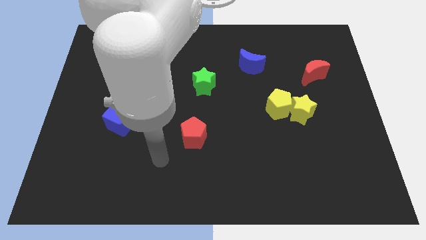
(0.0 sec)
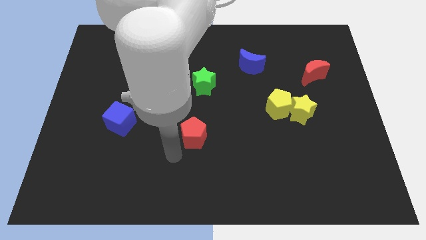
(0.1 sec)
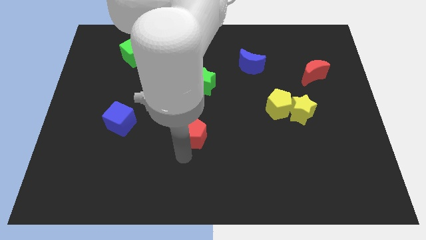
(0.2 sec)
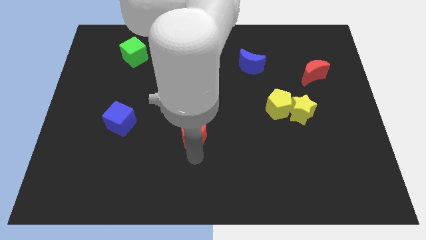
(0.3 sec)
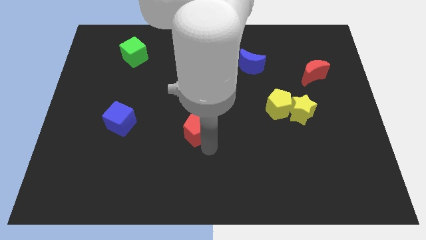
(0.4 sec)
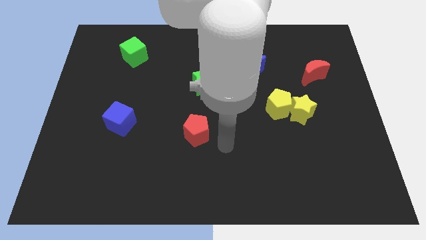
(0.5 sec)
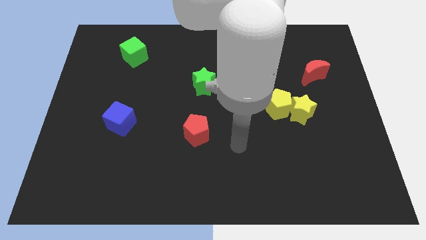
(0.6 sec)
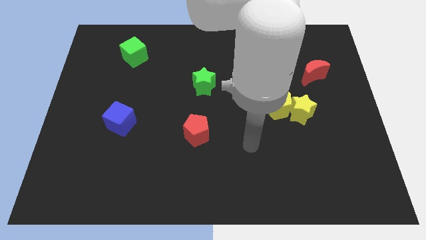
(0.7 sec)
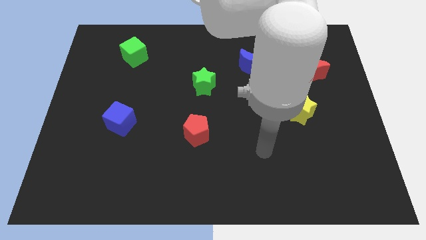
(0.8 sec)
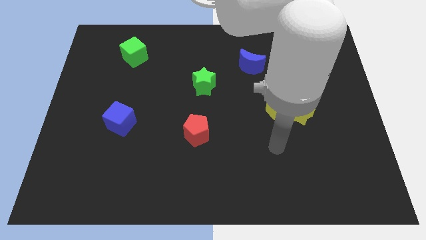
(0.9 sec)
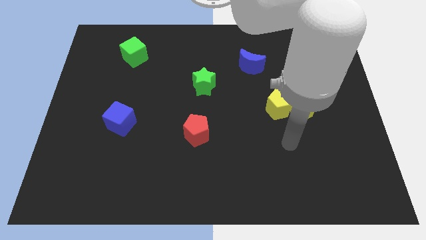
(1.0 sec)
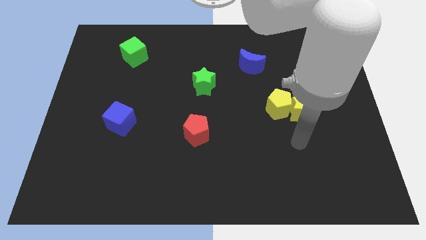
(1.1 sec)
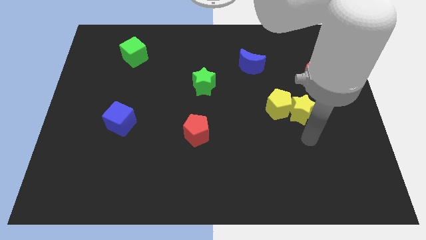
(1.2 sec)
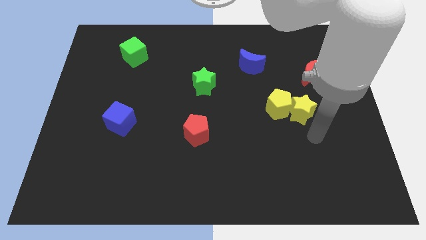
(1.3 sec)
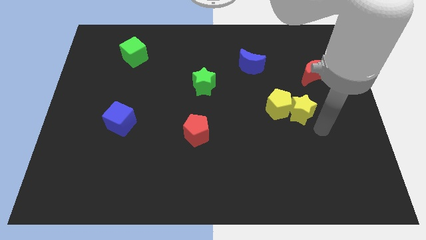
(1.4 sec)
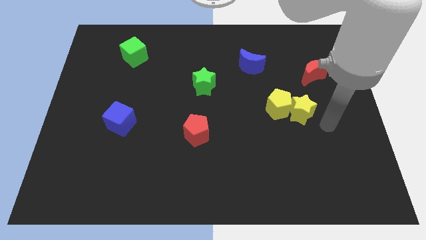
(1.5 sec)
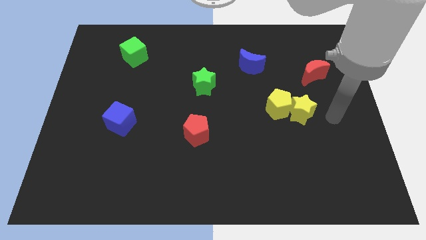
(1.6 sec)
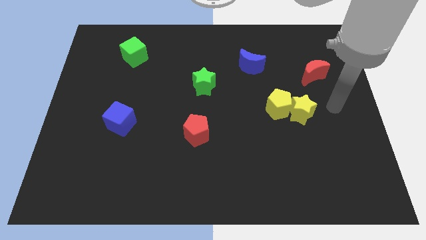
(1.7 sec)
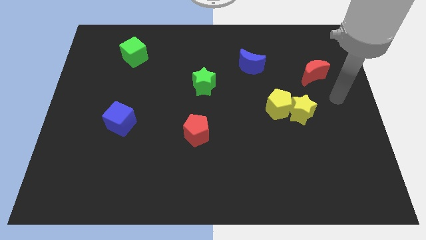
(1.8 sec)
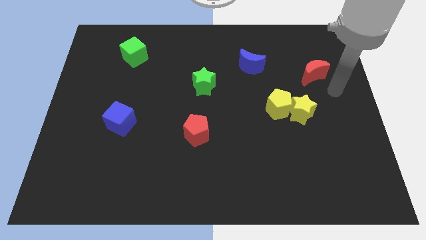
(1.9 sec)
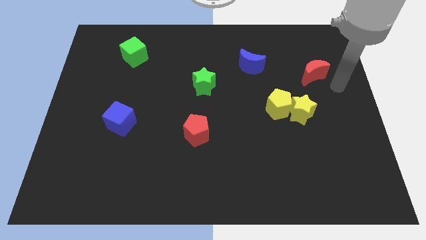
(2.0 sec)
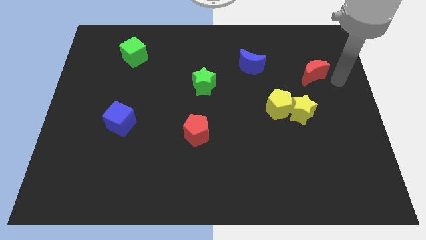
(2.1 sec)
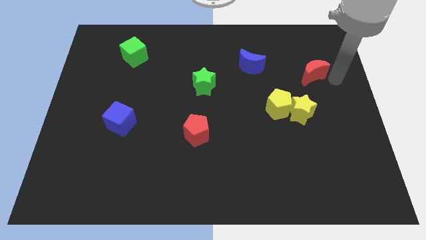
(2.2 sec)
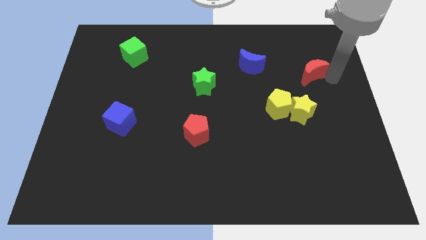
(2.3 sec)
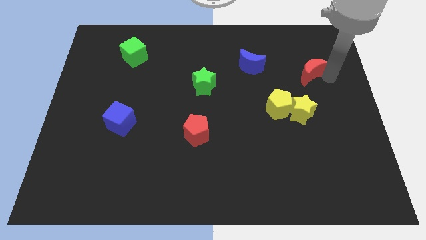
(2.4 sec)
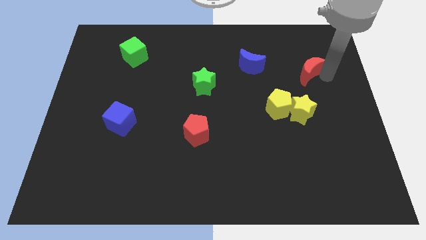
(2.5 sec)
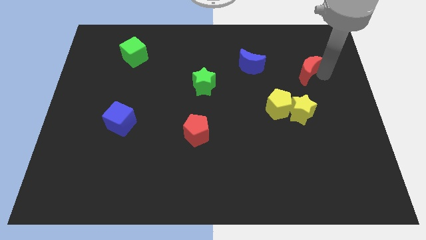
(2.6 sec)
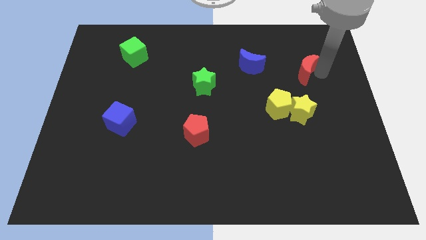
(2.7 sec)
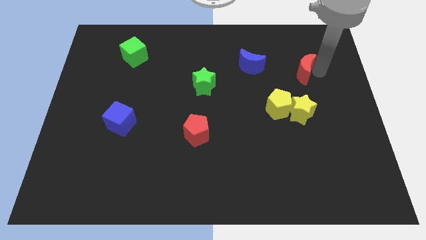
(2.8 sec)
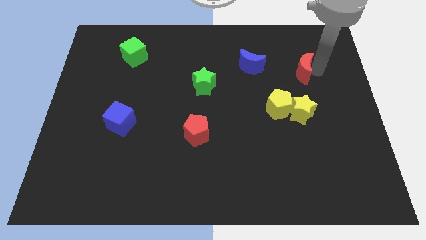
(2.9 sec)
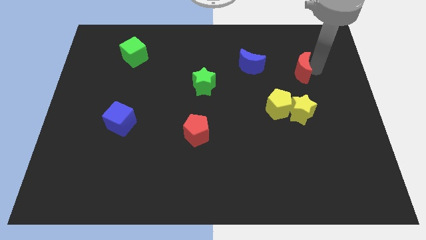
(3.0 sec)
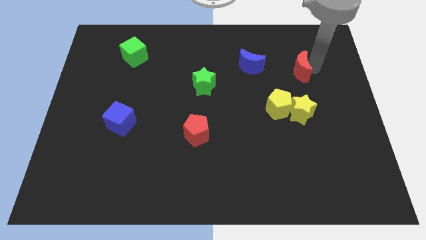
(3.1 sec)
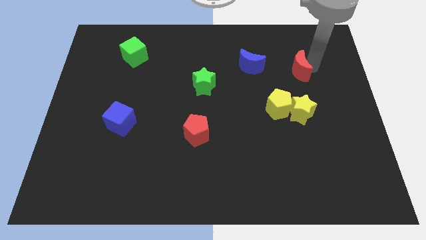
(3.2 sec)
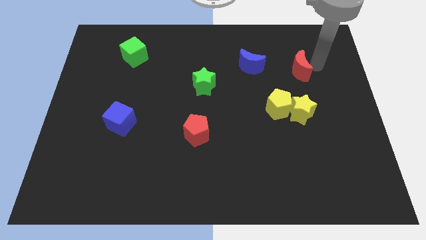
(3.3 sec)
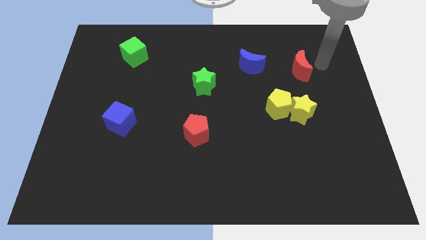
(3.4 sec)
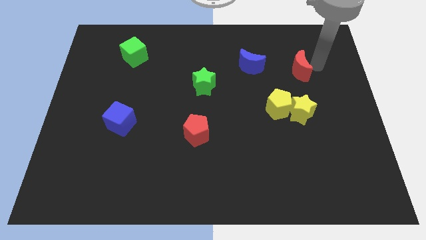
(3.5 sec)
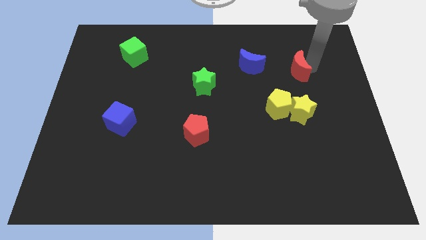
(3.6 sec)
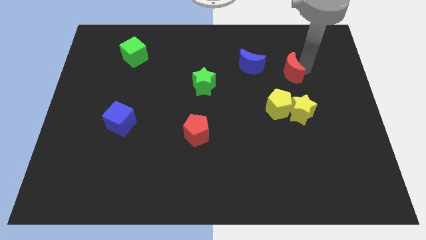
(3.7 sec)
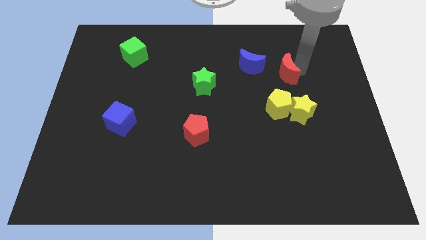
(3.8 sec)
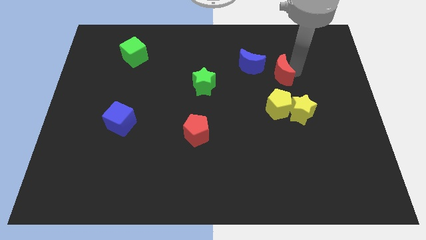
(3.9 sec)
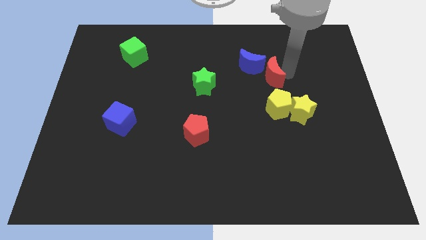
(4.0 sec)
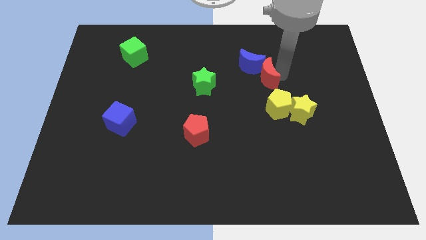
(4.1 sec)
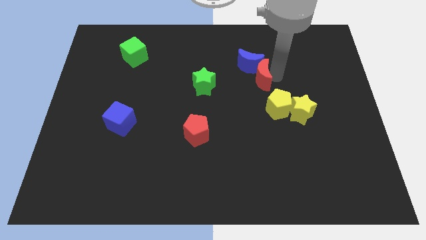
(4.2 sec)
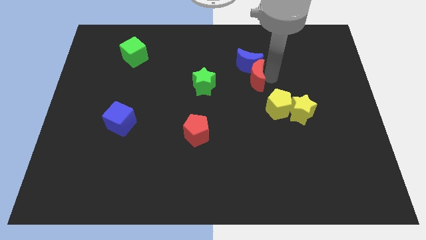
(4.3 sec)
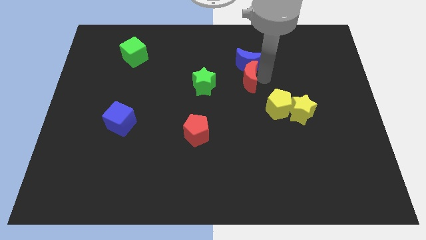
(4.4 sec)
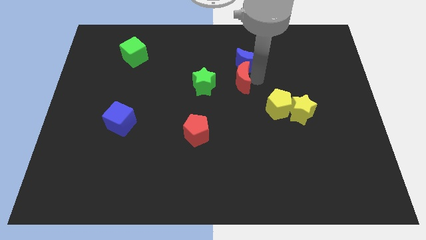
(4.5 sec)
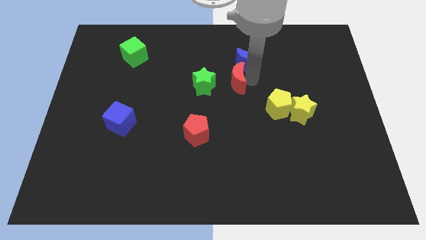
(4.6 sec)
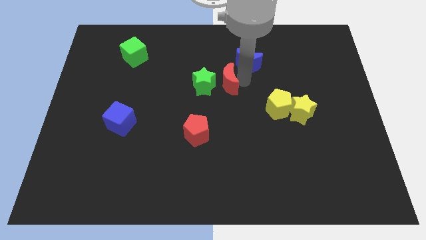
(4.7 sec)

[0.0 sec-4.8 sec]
move the red moon next to the green star

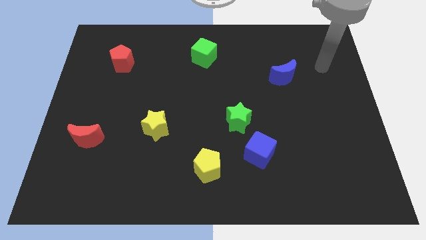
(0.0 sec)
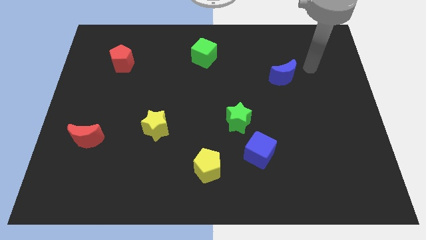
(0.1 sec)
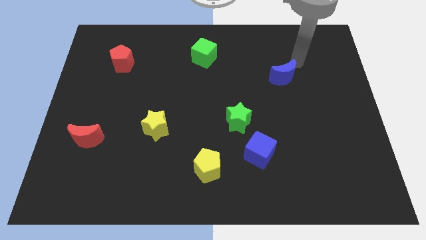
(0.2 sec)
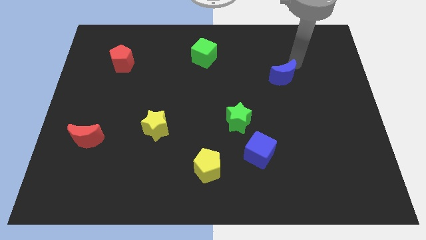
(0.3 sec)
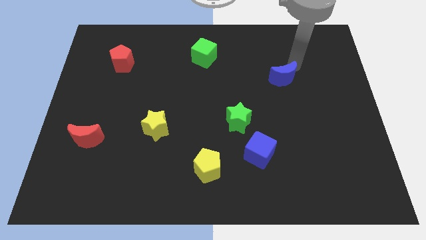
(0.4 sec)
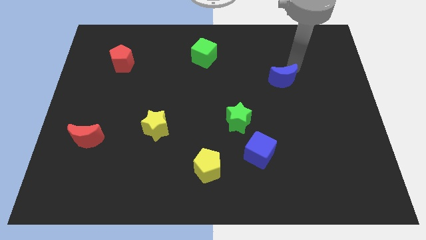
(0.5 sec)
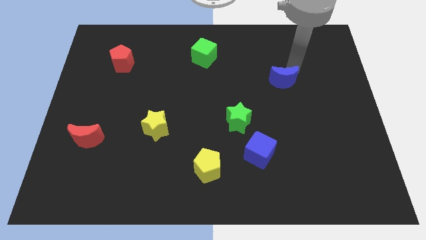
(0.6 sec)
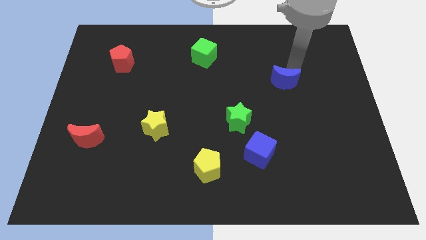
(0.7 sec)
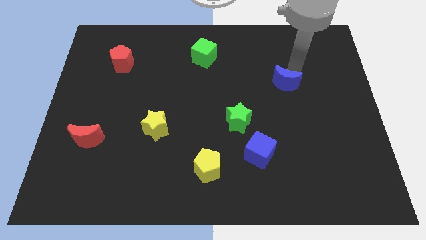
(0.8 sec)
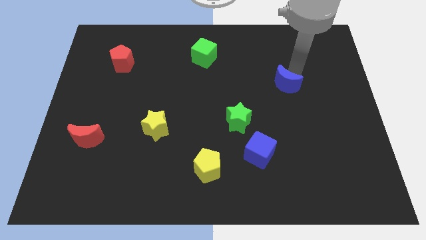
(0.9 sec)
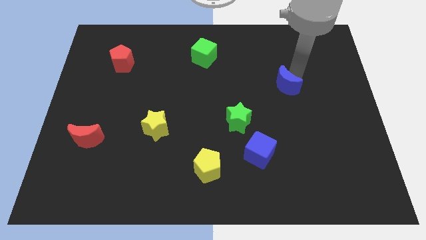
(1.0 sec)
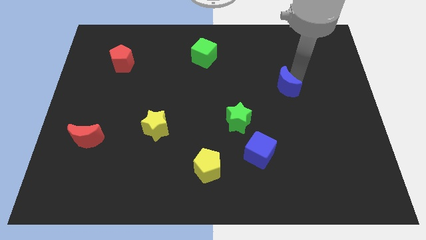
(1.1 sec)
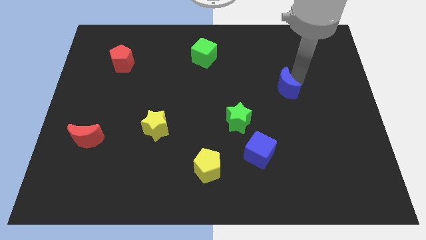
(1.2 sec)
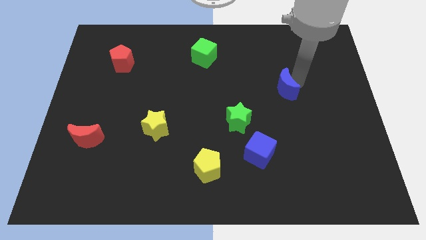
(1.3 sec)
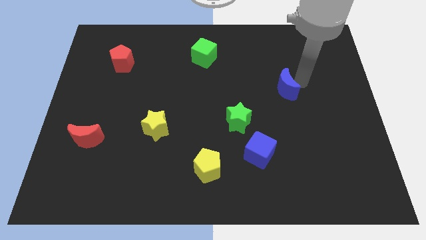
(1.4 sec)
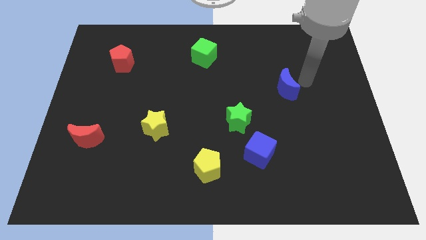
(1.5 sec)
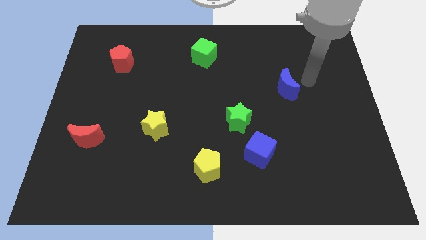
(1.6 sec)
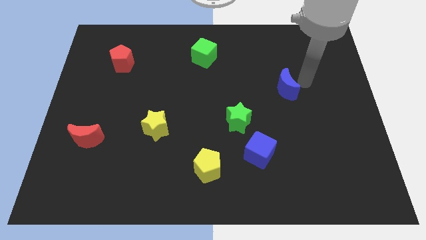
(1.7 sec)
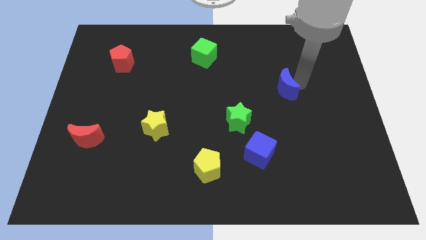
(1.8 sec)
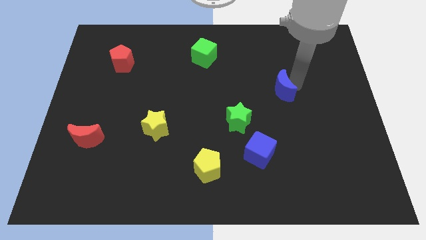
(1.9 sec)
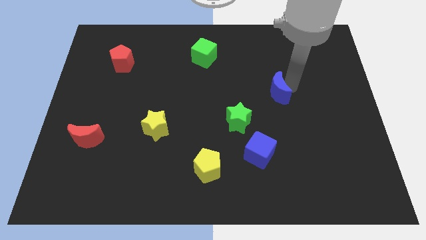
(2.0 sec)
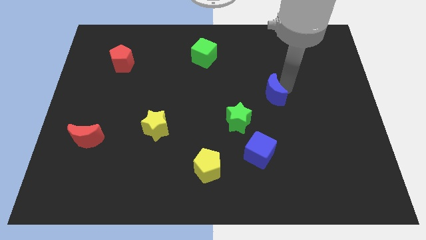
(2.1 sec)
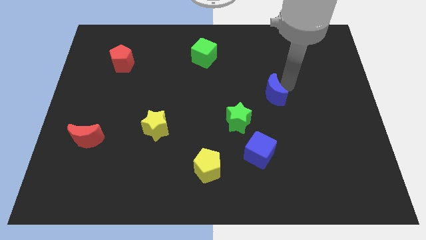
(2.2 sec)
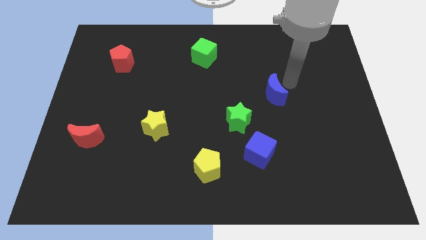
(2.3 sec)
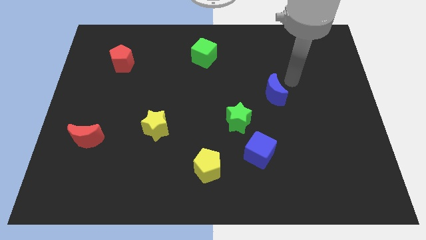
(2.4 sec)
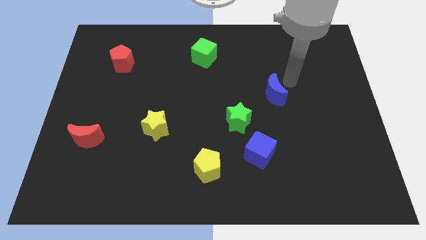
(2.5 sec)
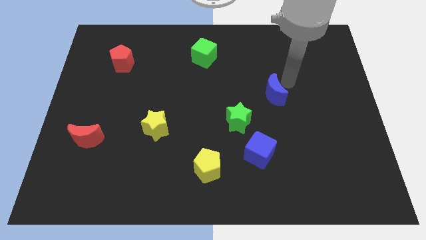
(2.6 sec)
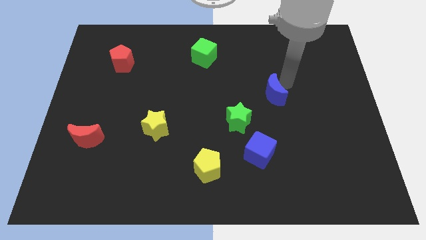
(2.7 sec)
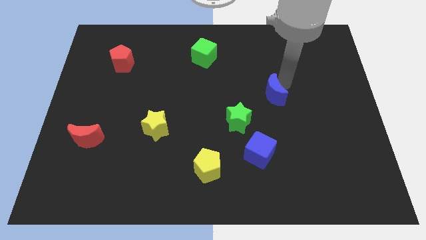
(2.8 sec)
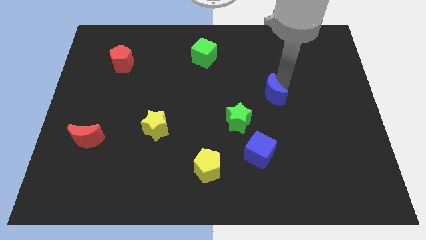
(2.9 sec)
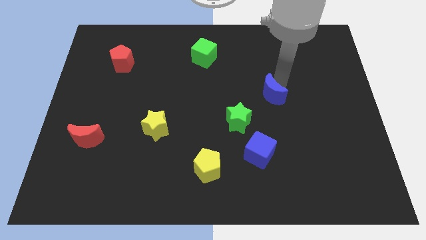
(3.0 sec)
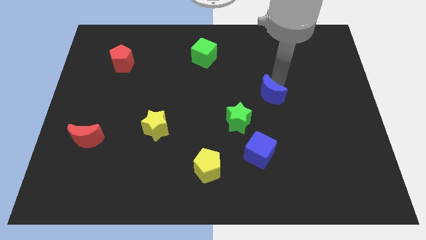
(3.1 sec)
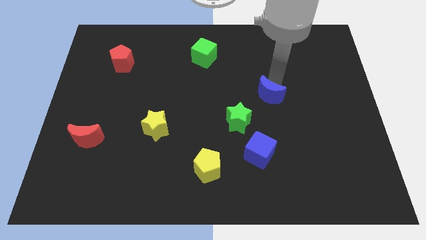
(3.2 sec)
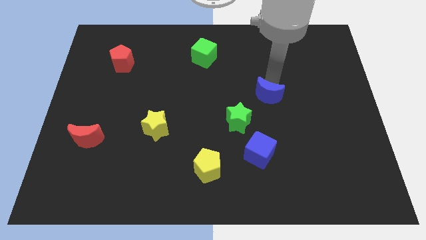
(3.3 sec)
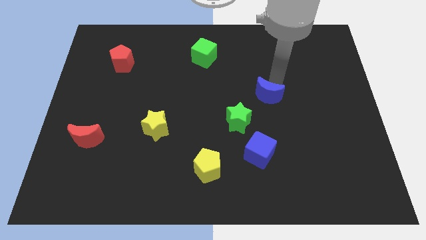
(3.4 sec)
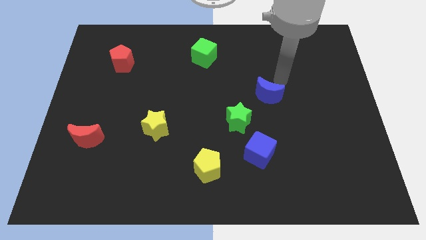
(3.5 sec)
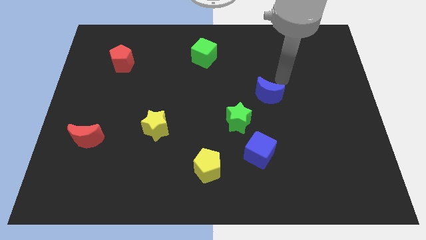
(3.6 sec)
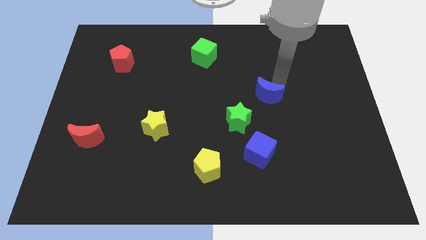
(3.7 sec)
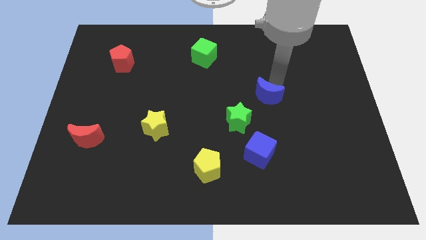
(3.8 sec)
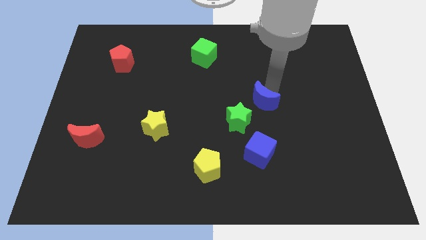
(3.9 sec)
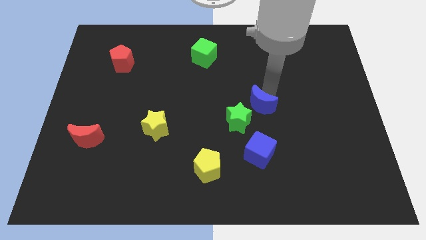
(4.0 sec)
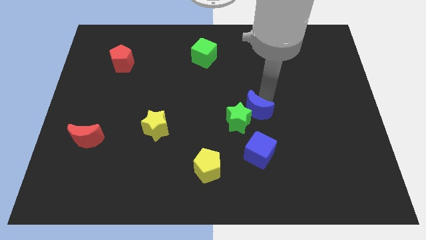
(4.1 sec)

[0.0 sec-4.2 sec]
slide the blue moon towards the green star
